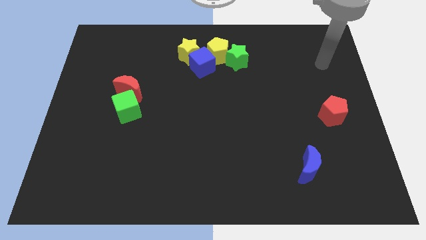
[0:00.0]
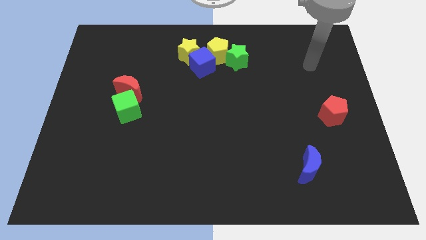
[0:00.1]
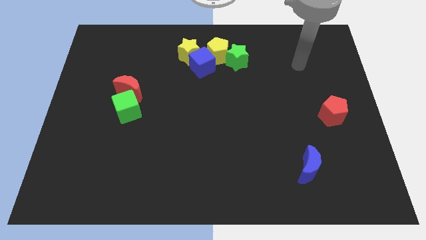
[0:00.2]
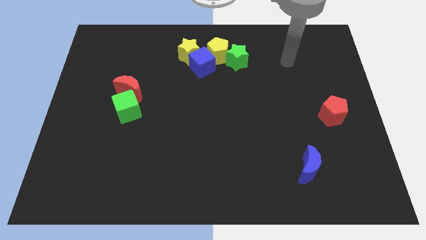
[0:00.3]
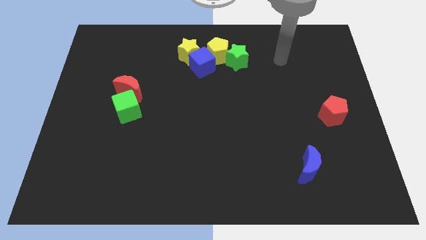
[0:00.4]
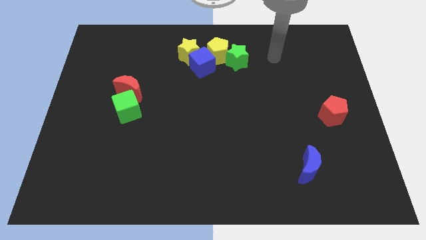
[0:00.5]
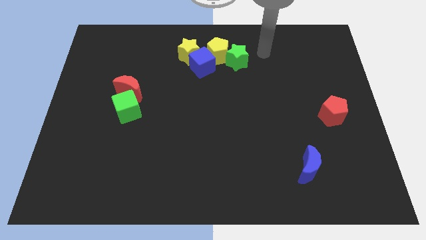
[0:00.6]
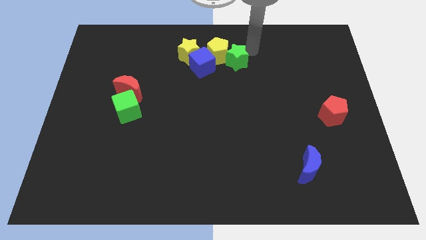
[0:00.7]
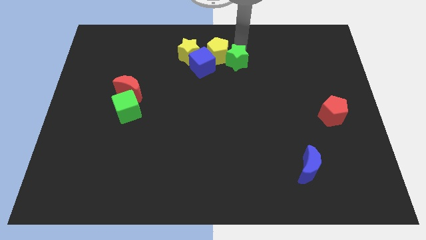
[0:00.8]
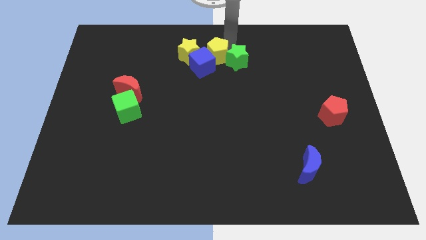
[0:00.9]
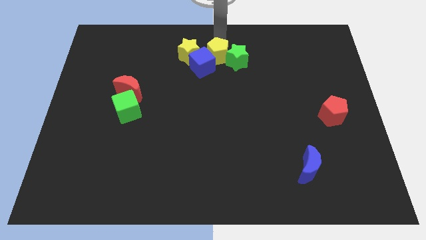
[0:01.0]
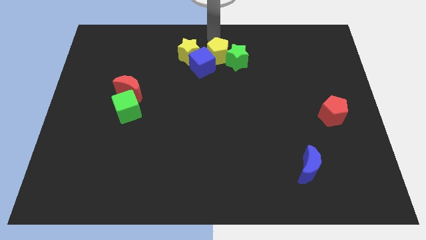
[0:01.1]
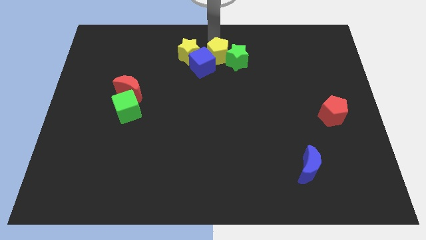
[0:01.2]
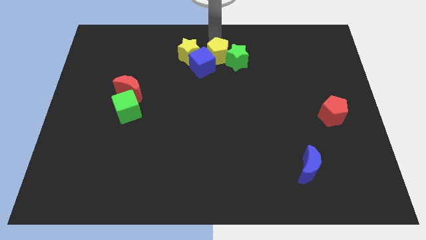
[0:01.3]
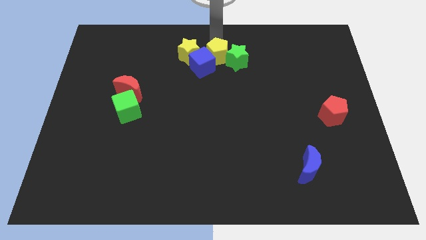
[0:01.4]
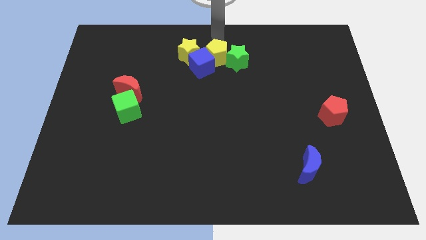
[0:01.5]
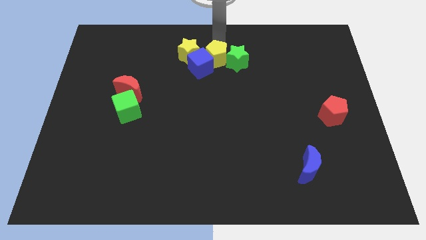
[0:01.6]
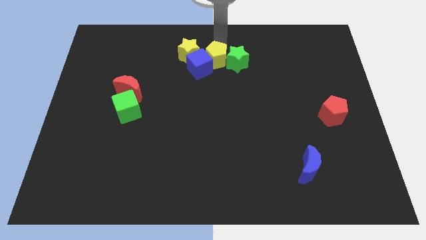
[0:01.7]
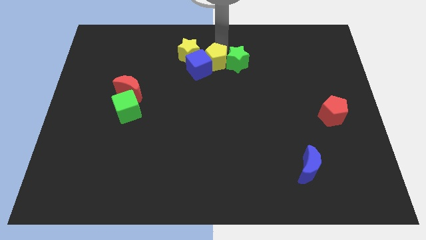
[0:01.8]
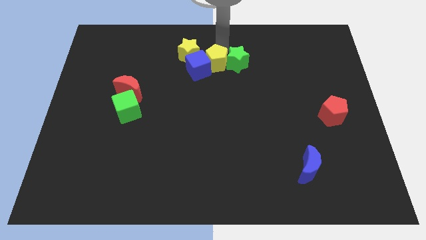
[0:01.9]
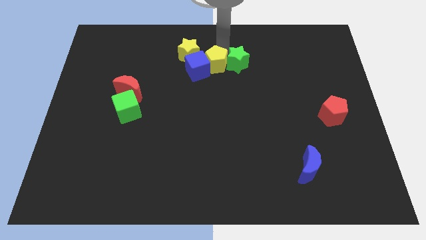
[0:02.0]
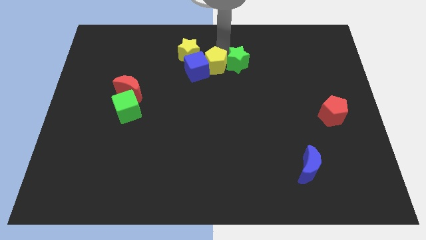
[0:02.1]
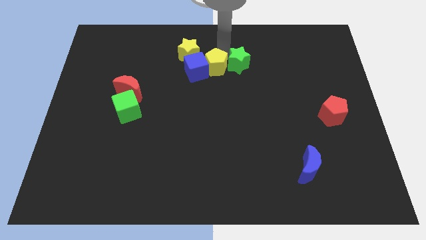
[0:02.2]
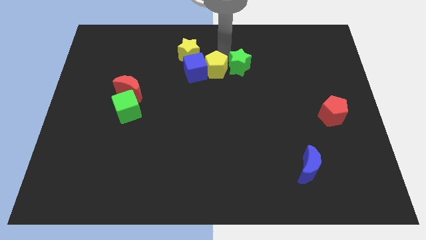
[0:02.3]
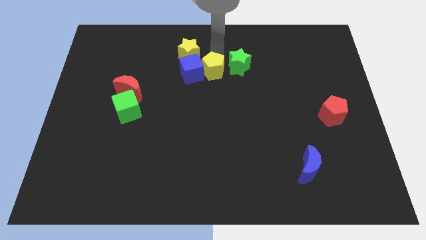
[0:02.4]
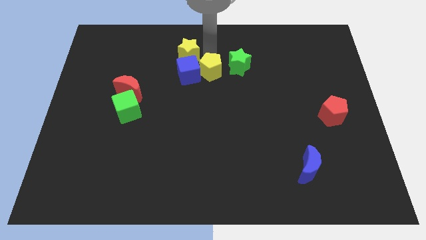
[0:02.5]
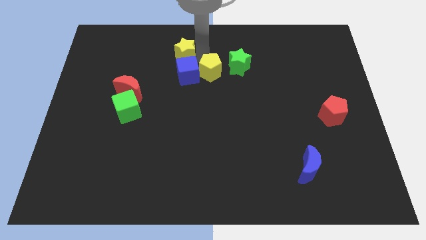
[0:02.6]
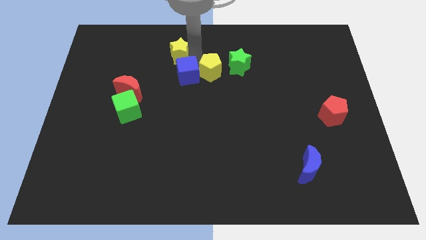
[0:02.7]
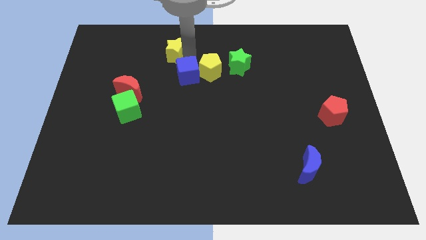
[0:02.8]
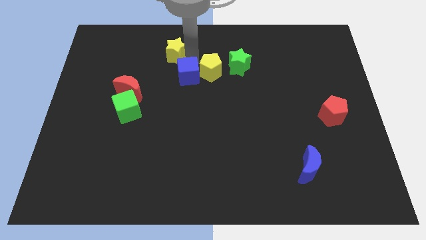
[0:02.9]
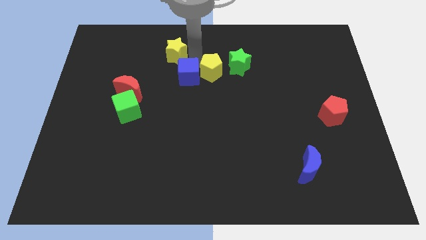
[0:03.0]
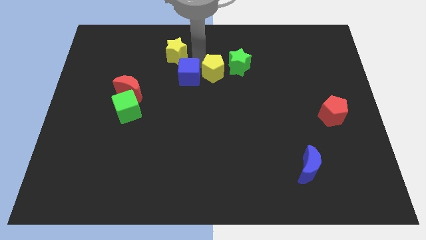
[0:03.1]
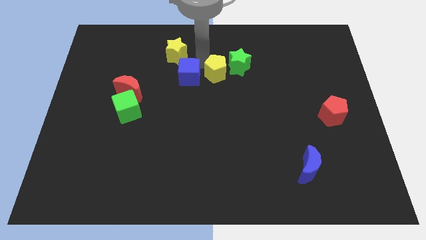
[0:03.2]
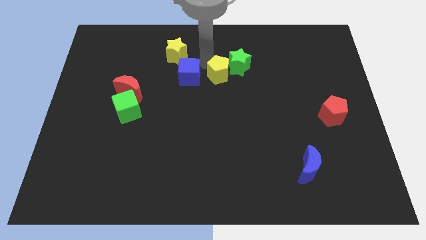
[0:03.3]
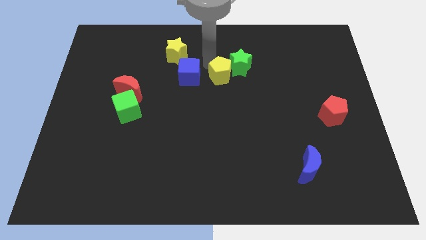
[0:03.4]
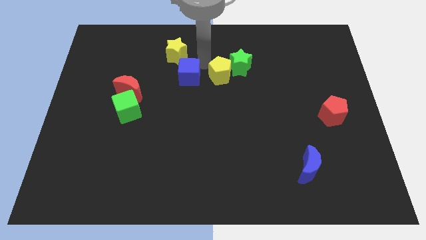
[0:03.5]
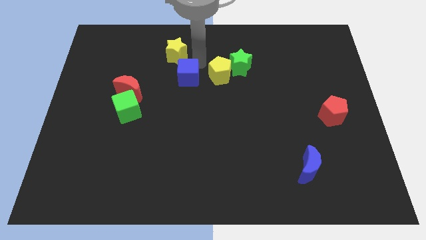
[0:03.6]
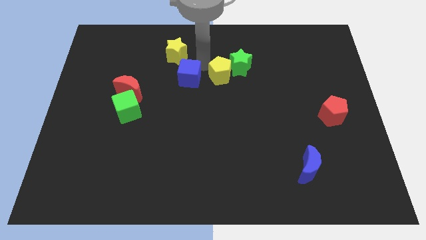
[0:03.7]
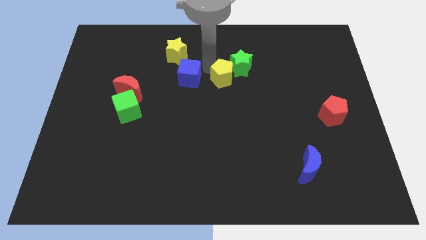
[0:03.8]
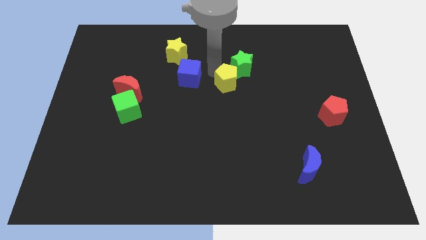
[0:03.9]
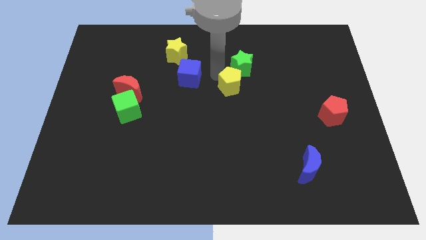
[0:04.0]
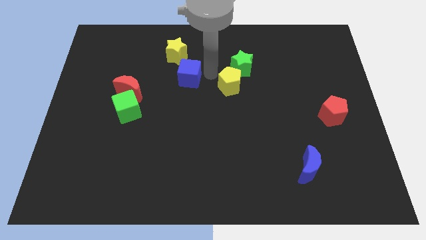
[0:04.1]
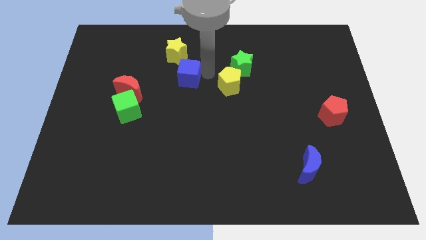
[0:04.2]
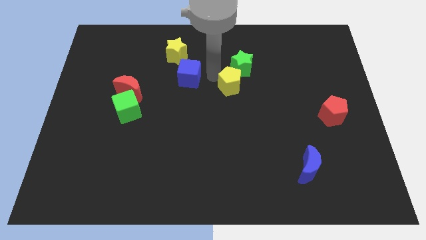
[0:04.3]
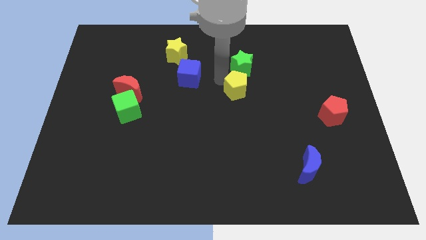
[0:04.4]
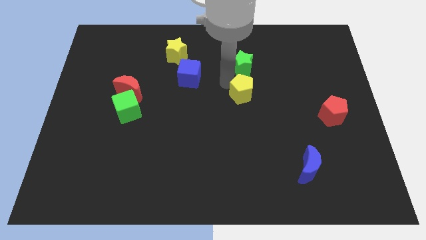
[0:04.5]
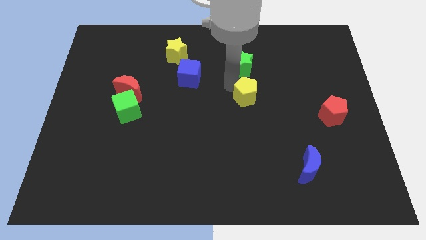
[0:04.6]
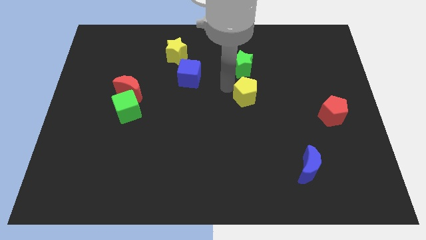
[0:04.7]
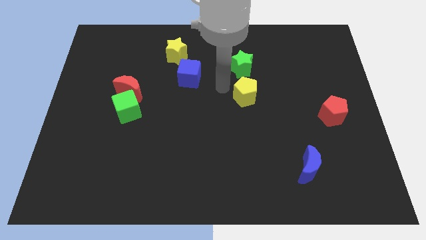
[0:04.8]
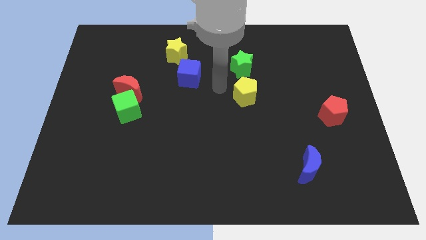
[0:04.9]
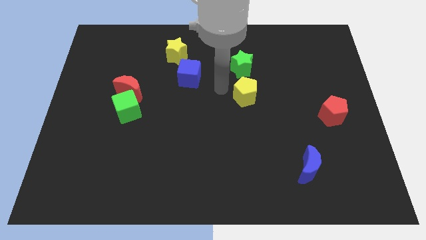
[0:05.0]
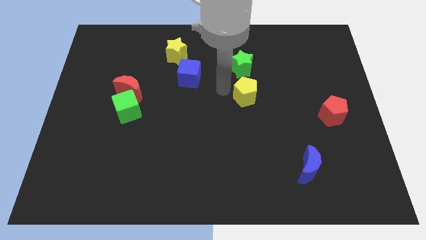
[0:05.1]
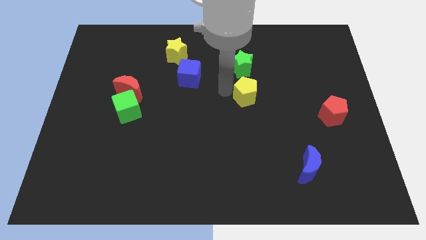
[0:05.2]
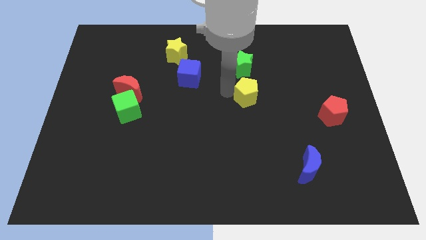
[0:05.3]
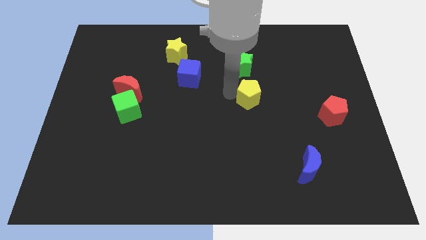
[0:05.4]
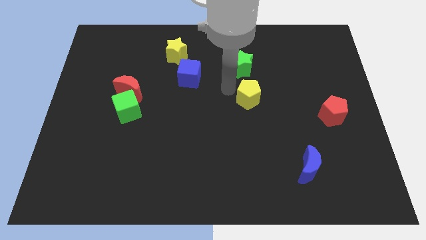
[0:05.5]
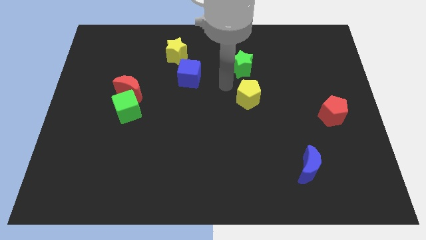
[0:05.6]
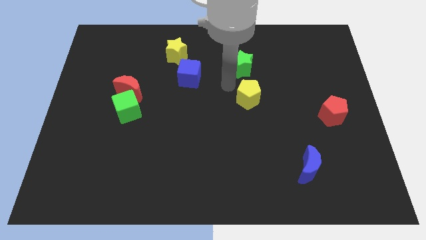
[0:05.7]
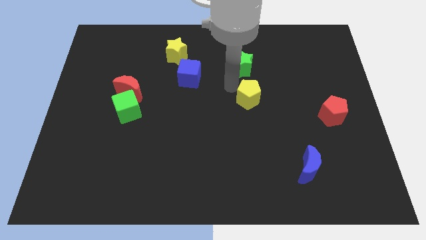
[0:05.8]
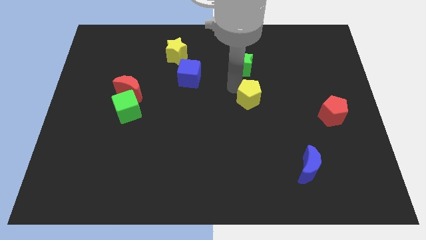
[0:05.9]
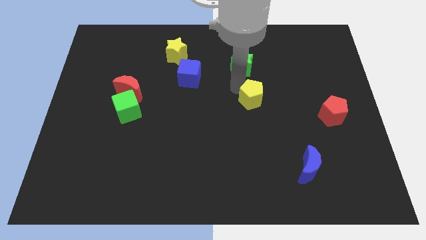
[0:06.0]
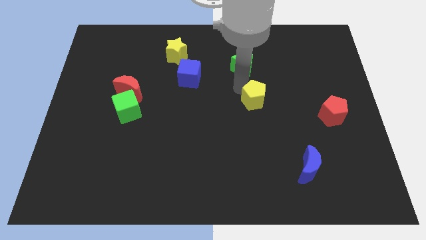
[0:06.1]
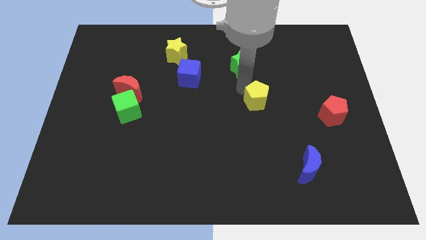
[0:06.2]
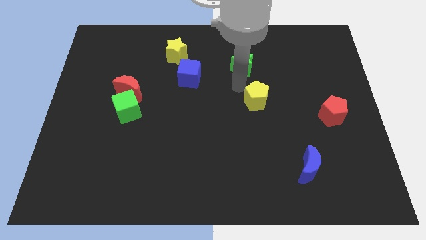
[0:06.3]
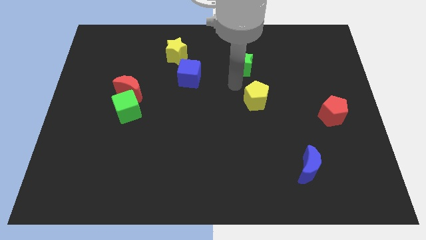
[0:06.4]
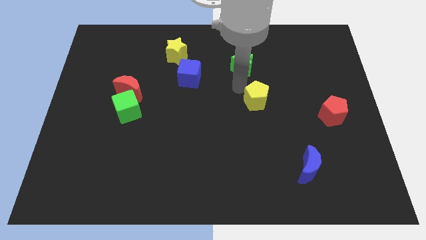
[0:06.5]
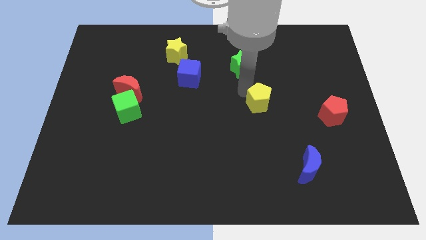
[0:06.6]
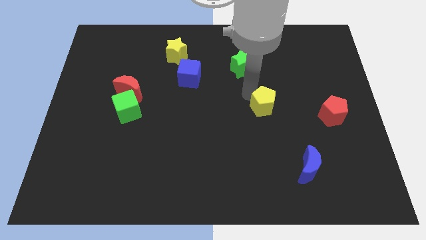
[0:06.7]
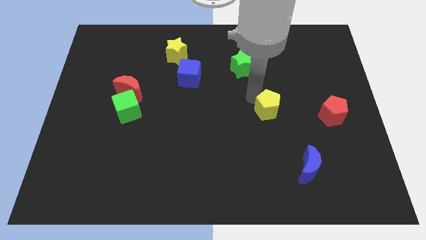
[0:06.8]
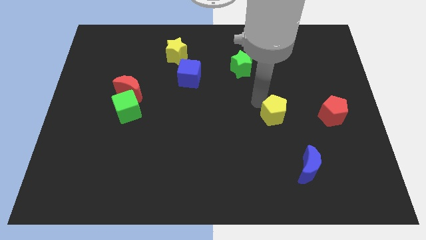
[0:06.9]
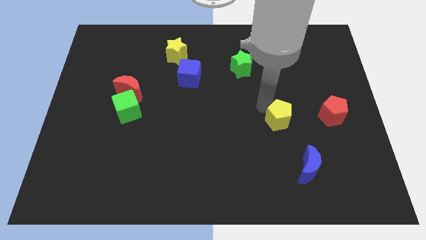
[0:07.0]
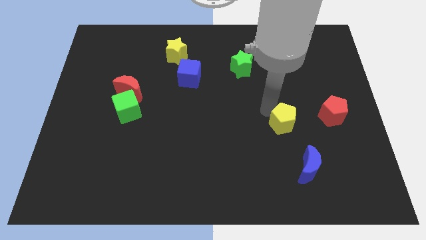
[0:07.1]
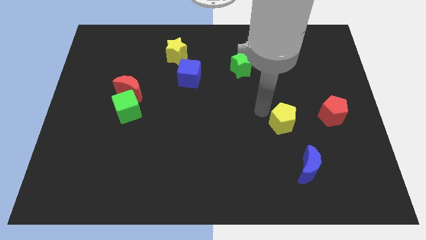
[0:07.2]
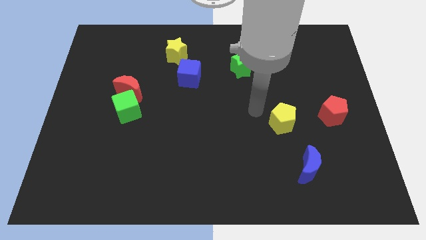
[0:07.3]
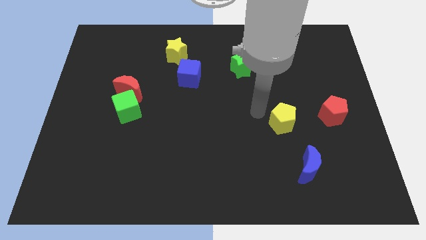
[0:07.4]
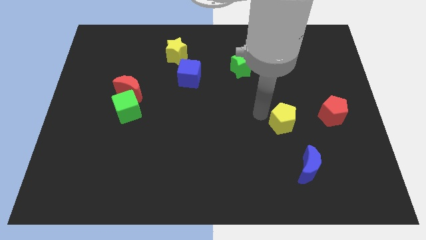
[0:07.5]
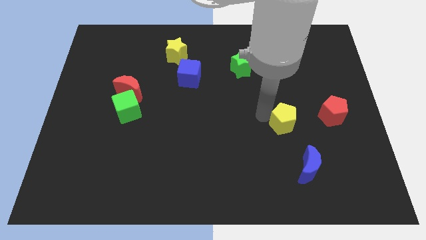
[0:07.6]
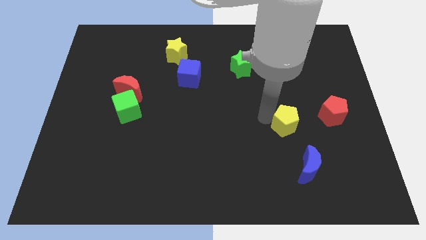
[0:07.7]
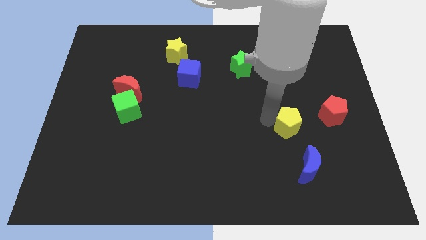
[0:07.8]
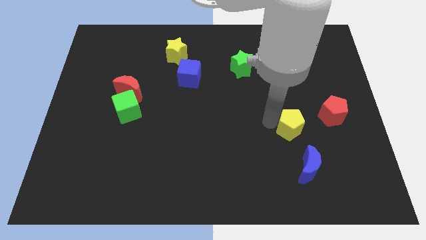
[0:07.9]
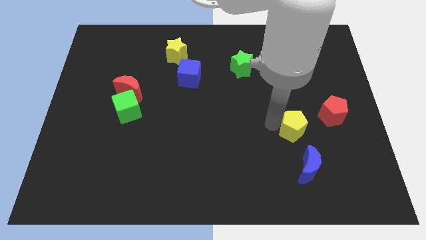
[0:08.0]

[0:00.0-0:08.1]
push the yellow pentagon to the bottom left side of the red pentagon
